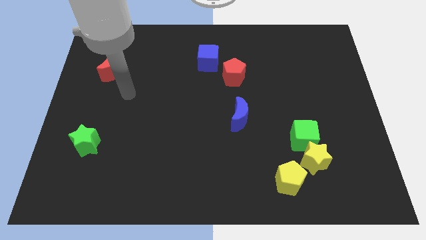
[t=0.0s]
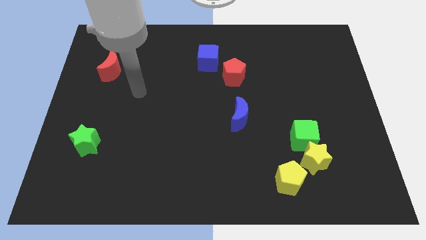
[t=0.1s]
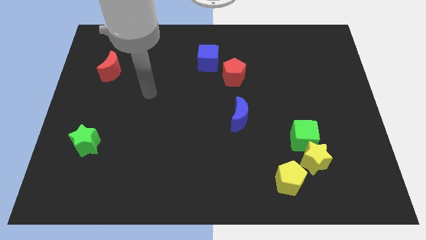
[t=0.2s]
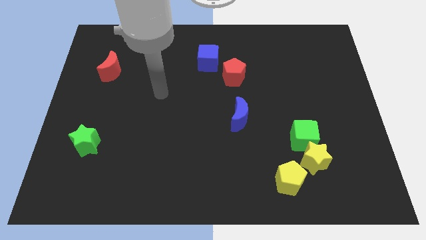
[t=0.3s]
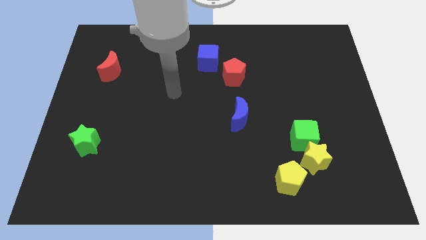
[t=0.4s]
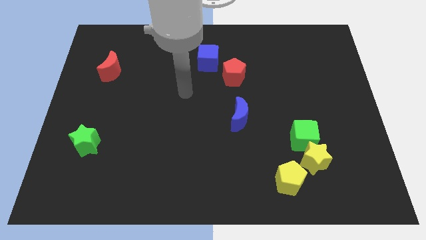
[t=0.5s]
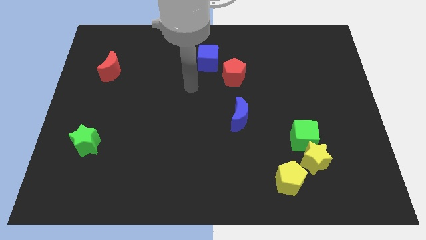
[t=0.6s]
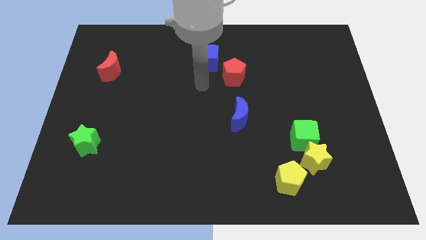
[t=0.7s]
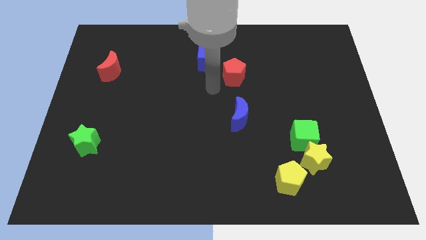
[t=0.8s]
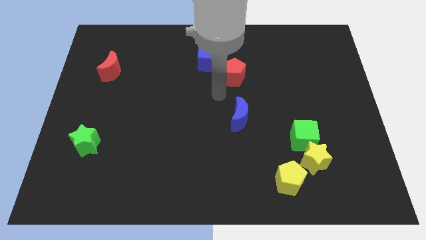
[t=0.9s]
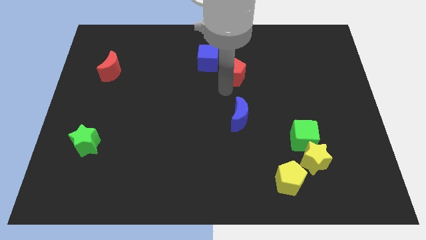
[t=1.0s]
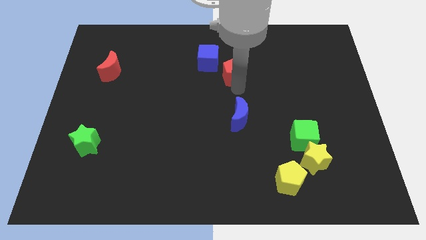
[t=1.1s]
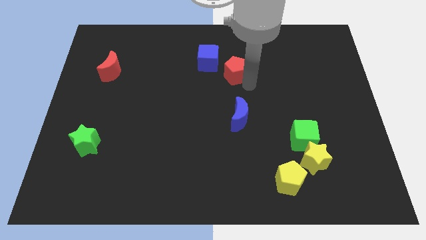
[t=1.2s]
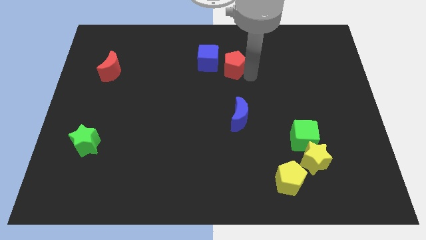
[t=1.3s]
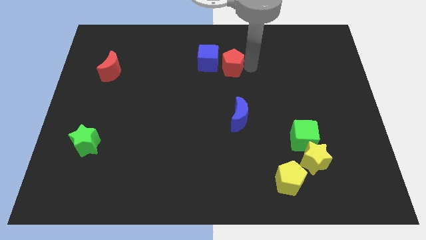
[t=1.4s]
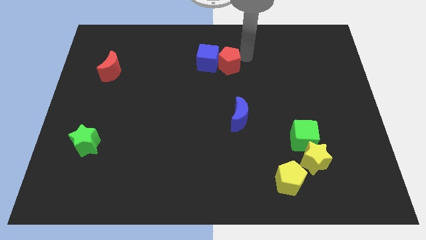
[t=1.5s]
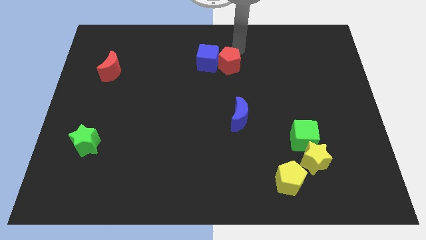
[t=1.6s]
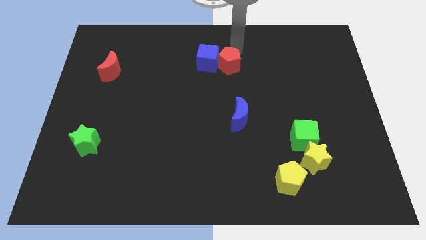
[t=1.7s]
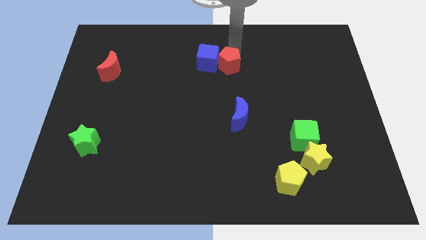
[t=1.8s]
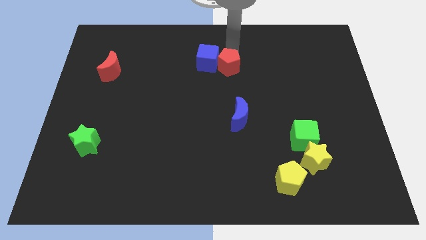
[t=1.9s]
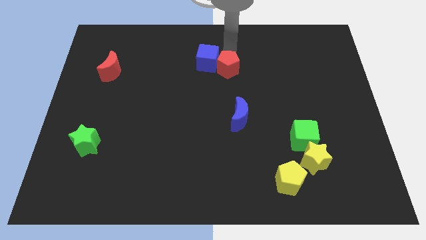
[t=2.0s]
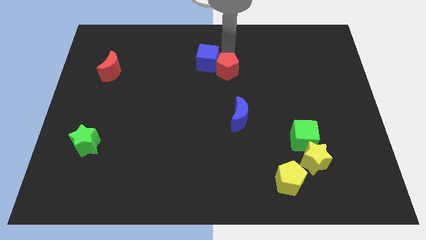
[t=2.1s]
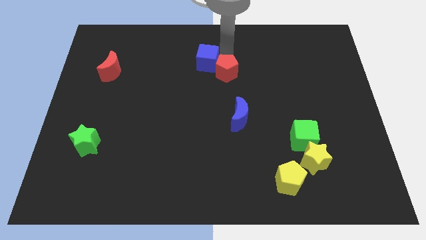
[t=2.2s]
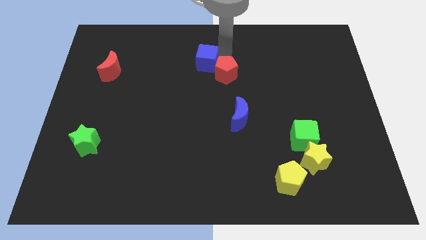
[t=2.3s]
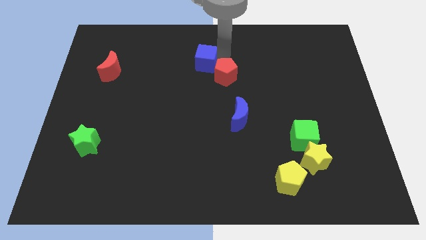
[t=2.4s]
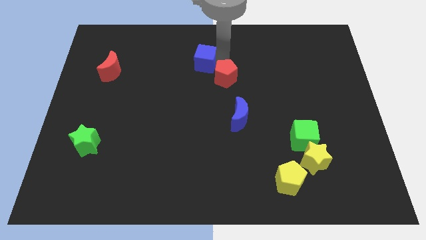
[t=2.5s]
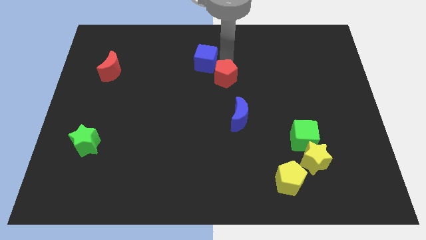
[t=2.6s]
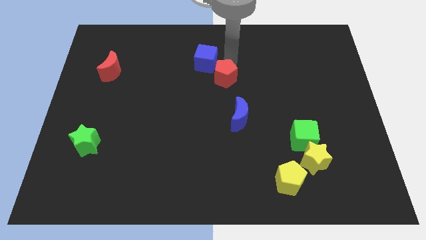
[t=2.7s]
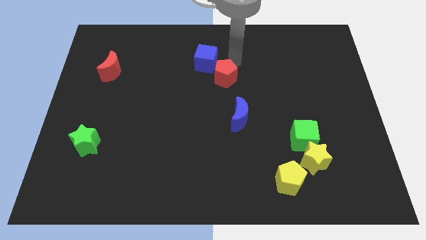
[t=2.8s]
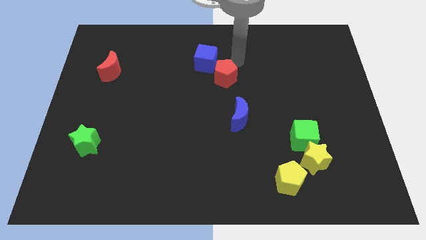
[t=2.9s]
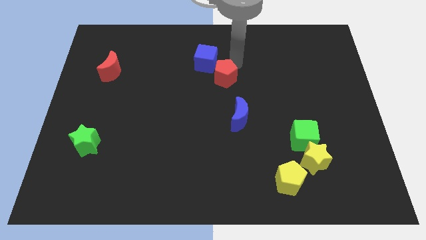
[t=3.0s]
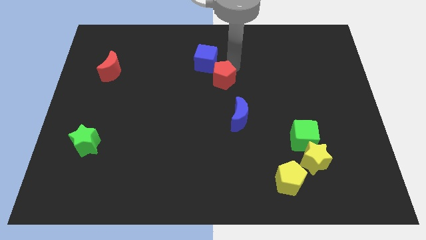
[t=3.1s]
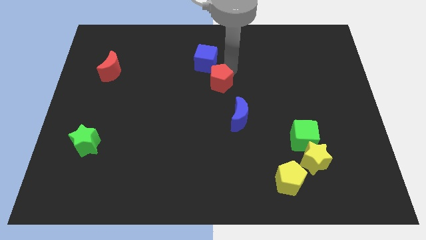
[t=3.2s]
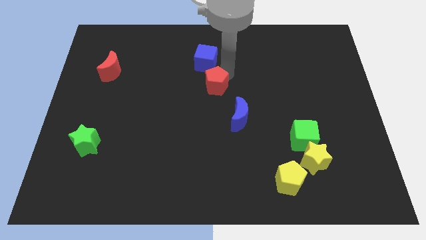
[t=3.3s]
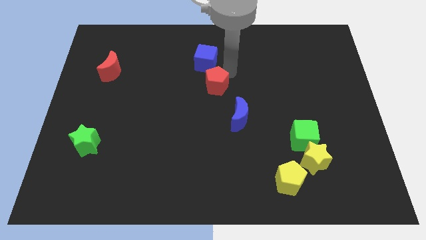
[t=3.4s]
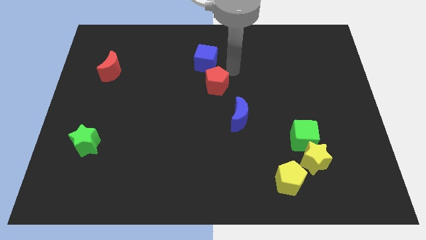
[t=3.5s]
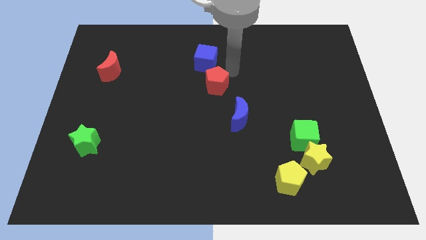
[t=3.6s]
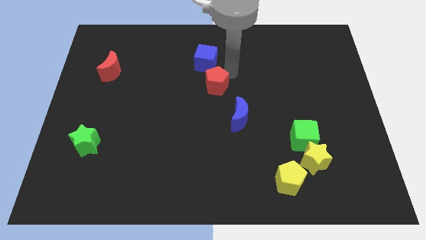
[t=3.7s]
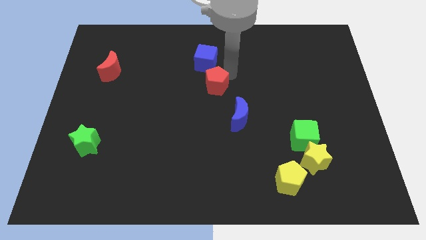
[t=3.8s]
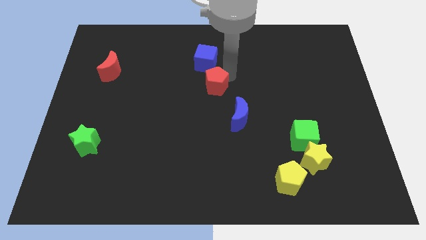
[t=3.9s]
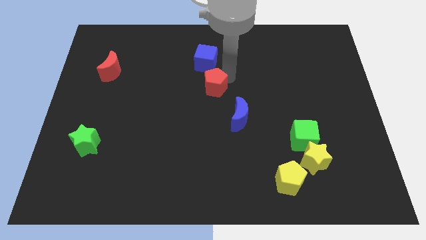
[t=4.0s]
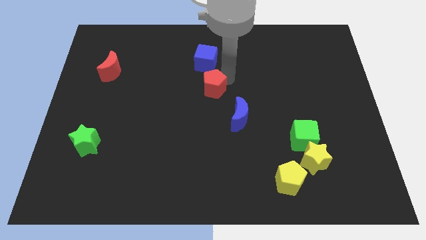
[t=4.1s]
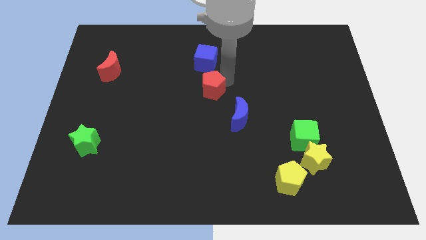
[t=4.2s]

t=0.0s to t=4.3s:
move the red pentagon slightly diagonally downwards and left

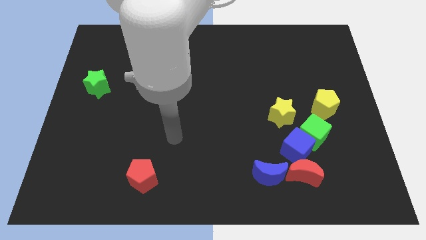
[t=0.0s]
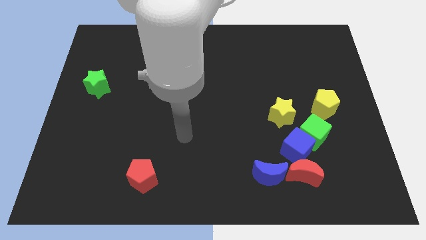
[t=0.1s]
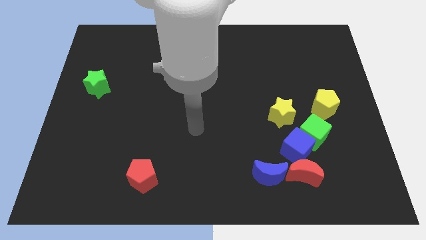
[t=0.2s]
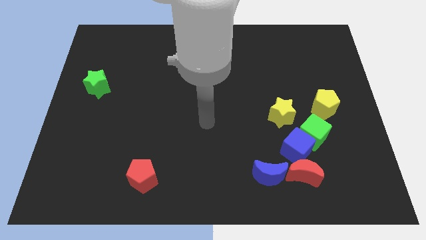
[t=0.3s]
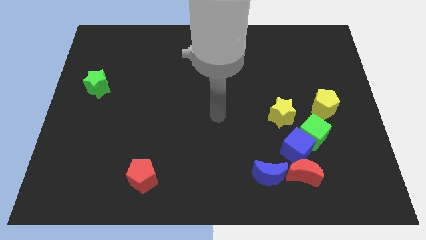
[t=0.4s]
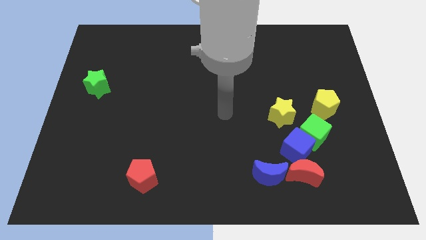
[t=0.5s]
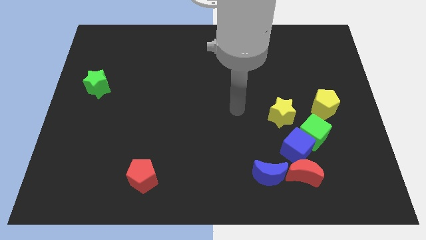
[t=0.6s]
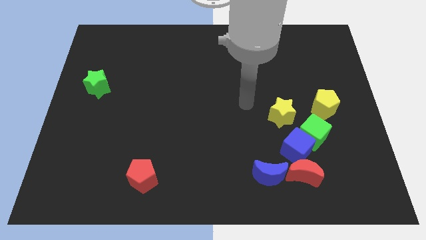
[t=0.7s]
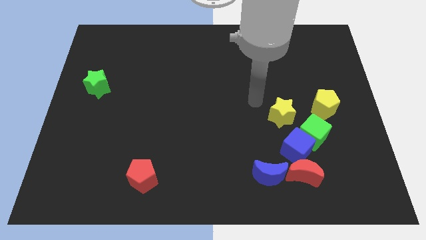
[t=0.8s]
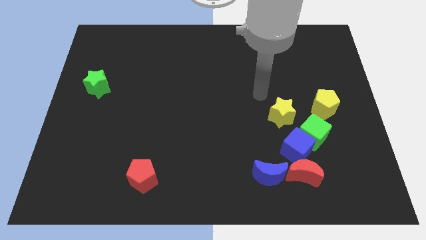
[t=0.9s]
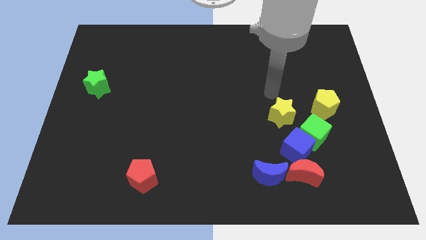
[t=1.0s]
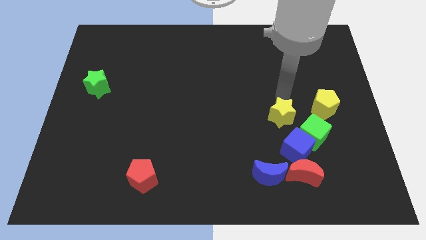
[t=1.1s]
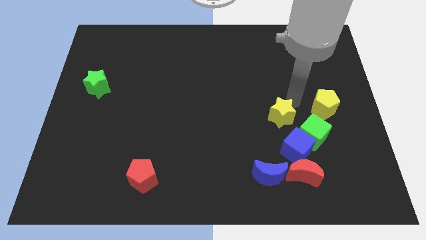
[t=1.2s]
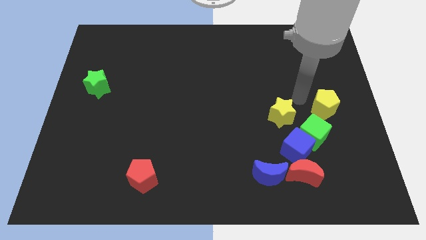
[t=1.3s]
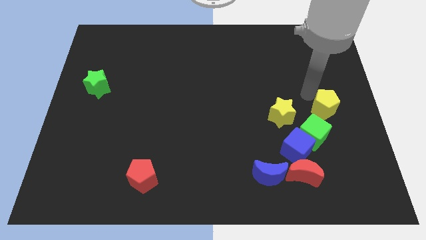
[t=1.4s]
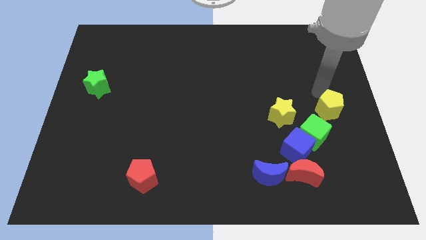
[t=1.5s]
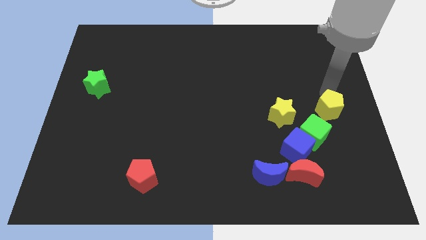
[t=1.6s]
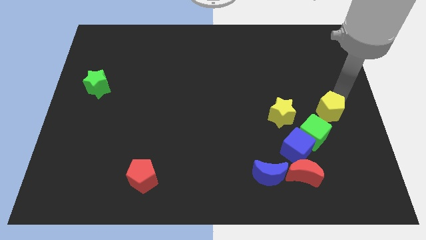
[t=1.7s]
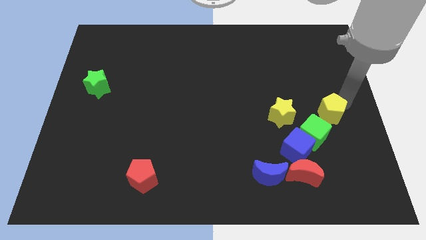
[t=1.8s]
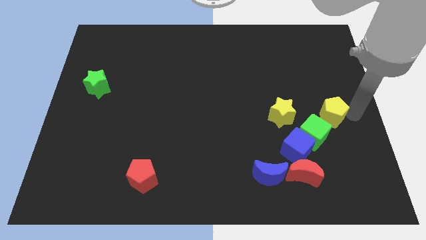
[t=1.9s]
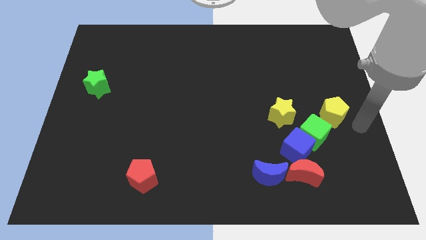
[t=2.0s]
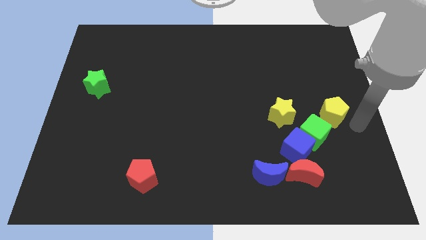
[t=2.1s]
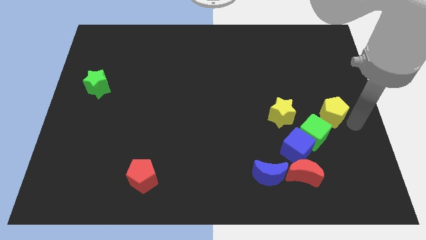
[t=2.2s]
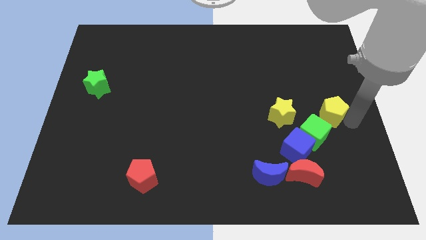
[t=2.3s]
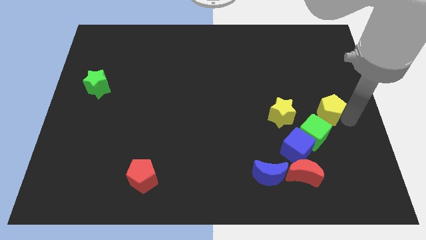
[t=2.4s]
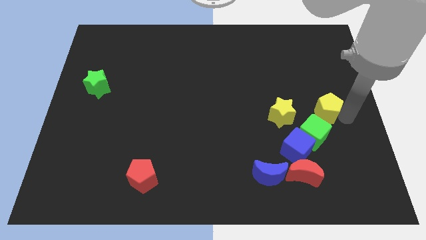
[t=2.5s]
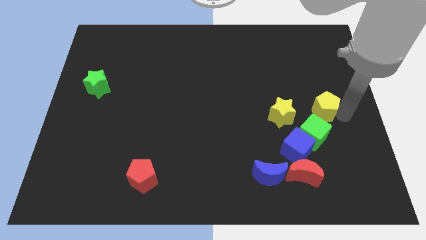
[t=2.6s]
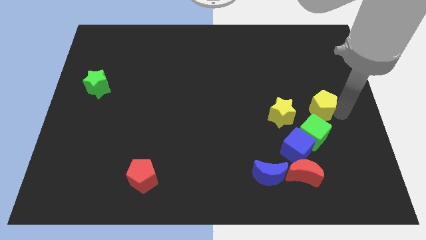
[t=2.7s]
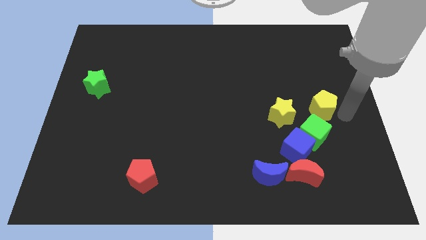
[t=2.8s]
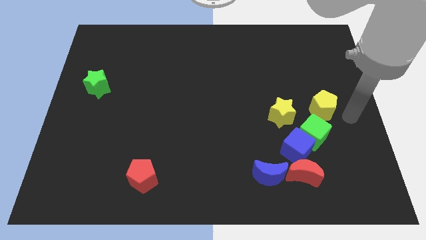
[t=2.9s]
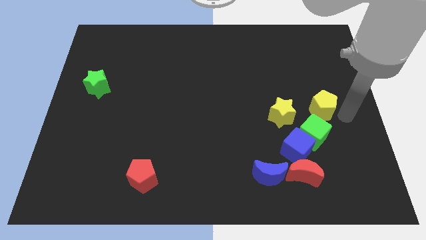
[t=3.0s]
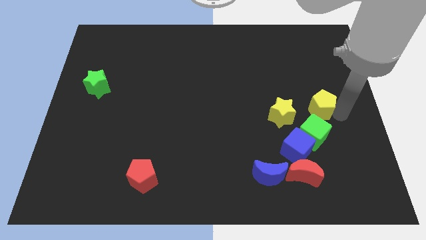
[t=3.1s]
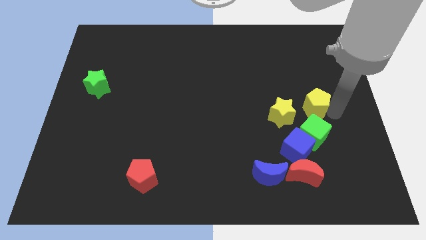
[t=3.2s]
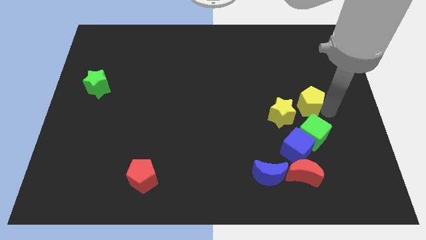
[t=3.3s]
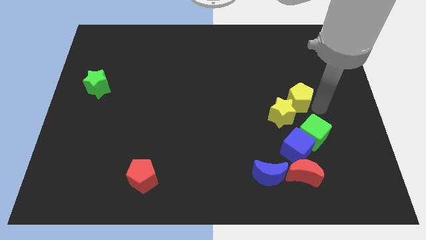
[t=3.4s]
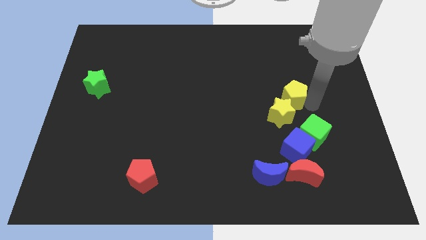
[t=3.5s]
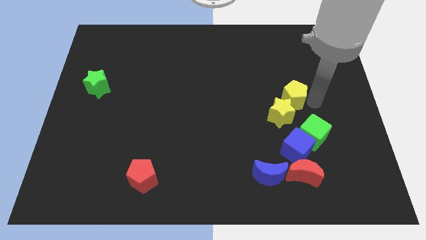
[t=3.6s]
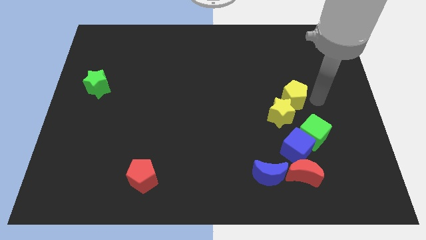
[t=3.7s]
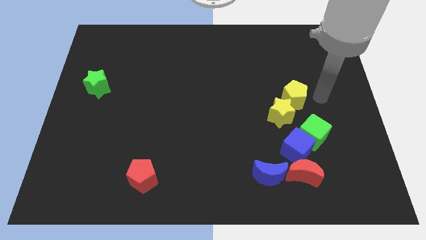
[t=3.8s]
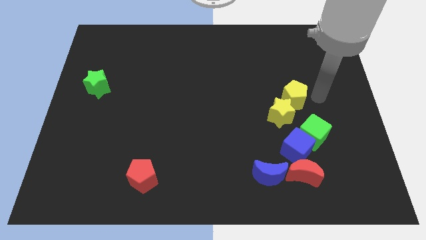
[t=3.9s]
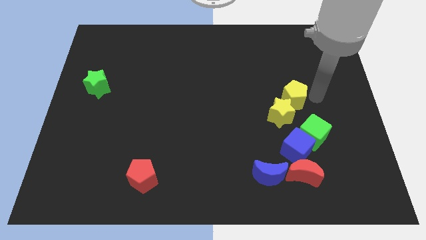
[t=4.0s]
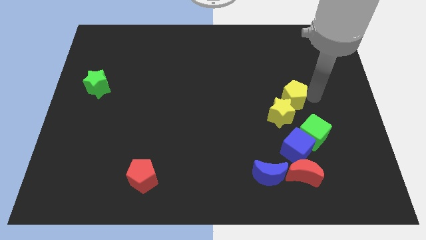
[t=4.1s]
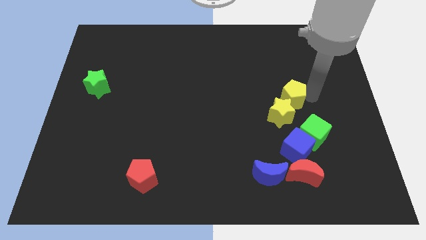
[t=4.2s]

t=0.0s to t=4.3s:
move the yellow pentagon left a bit
